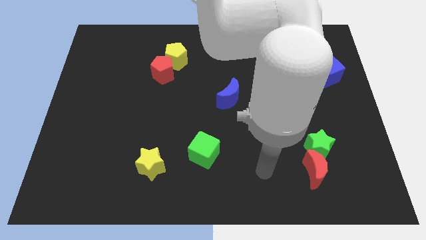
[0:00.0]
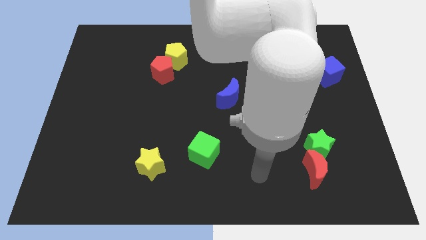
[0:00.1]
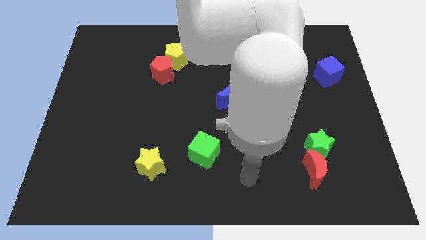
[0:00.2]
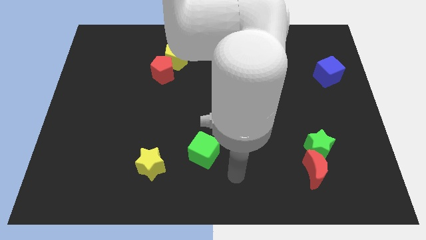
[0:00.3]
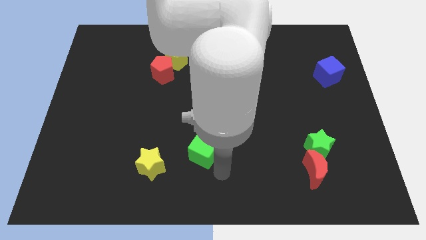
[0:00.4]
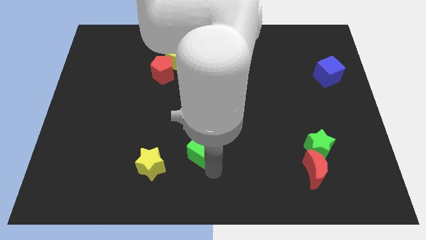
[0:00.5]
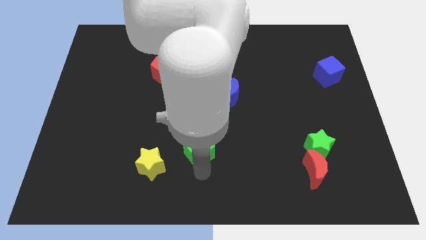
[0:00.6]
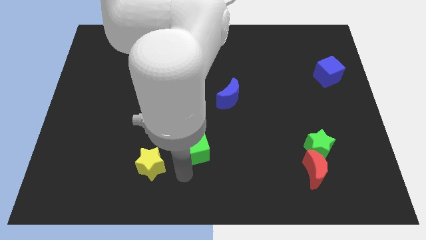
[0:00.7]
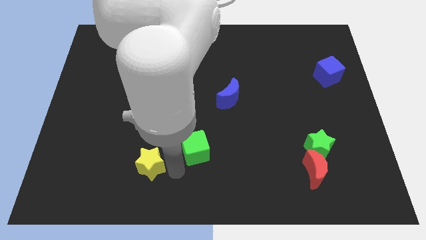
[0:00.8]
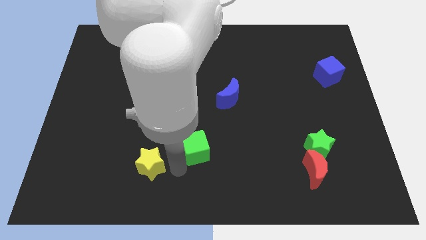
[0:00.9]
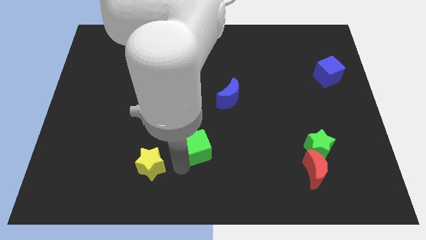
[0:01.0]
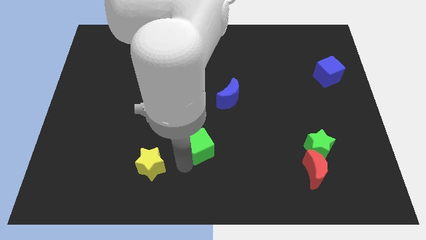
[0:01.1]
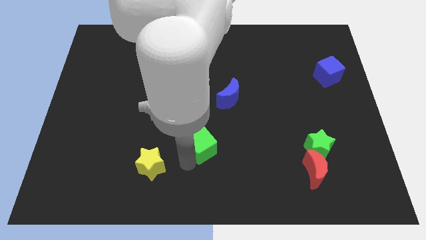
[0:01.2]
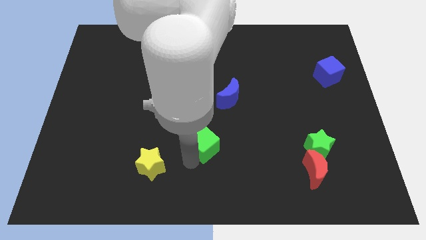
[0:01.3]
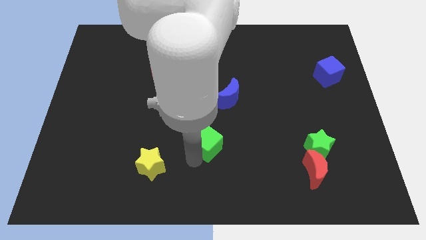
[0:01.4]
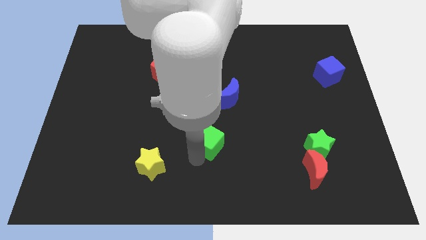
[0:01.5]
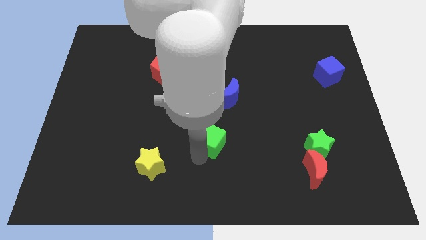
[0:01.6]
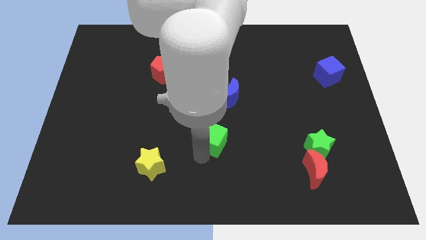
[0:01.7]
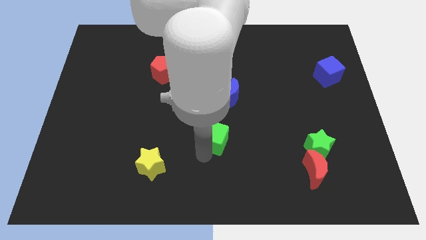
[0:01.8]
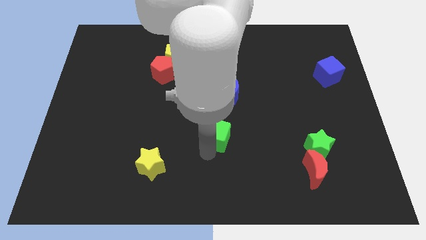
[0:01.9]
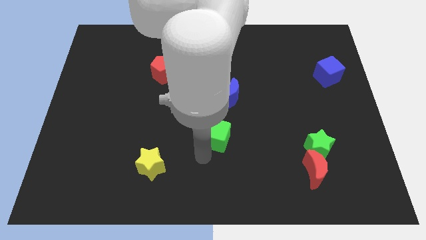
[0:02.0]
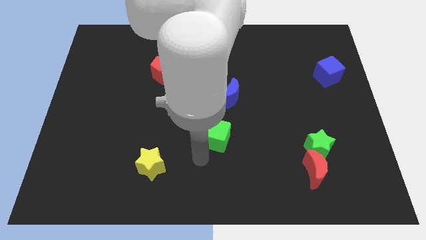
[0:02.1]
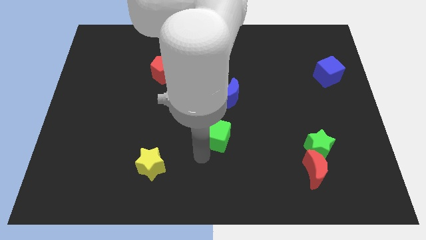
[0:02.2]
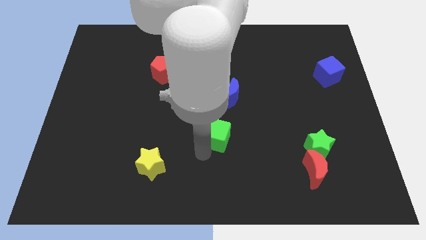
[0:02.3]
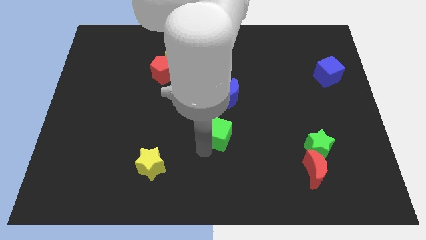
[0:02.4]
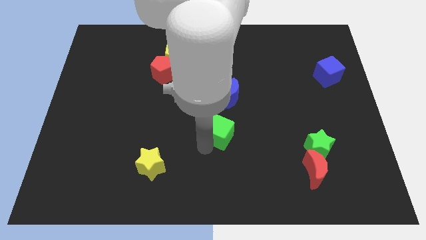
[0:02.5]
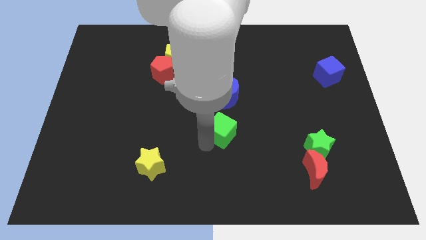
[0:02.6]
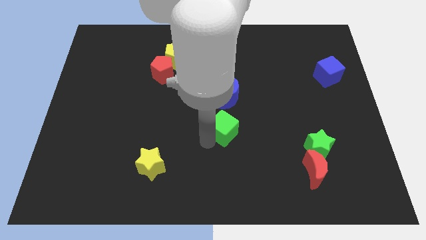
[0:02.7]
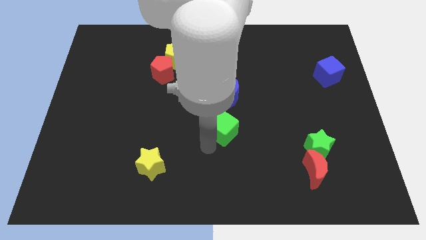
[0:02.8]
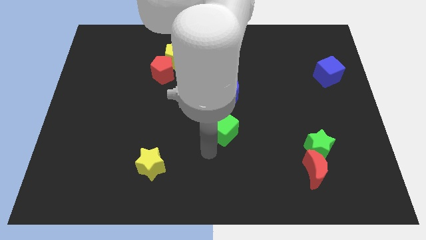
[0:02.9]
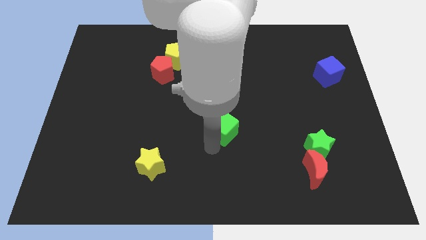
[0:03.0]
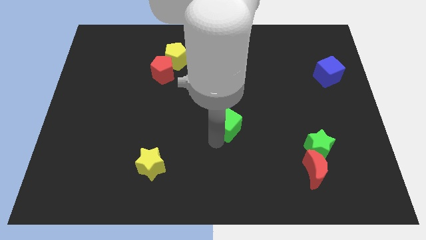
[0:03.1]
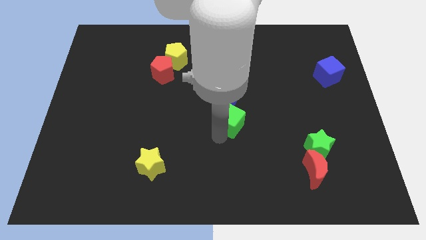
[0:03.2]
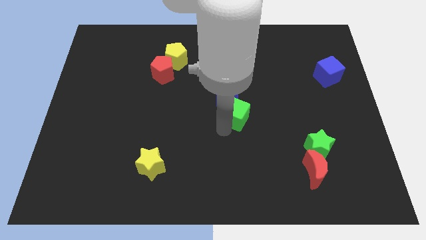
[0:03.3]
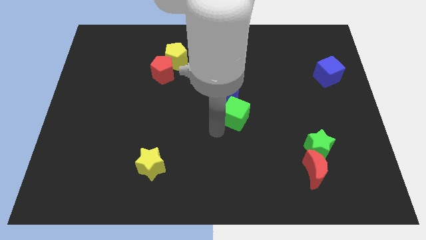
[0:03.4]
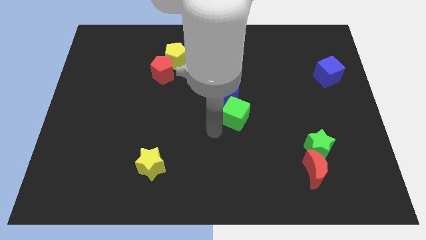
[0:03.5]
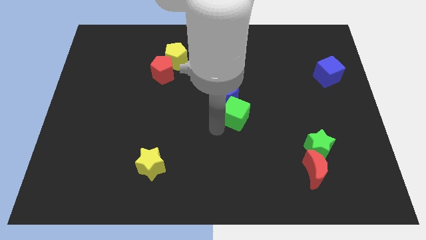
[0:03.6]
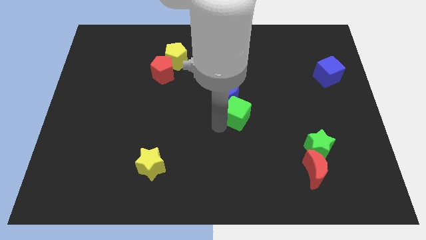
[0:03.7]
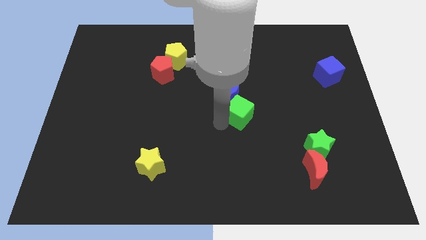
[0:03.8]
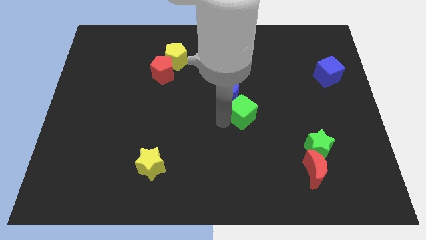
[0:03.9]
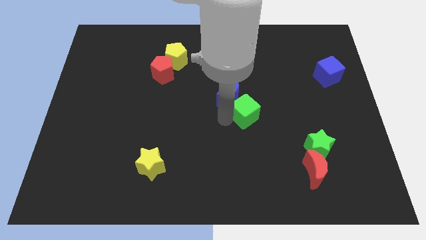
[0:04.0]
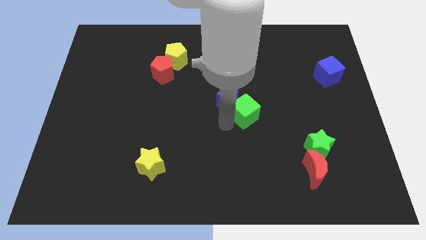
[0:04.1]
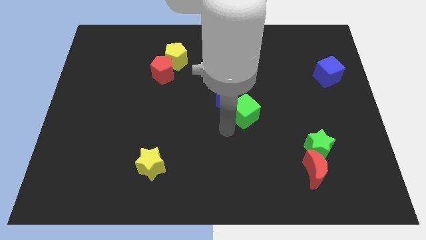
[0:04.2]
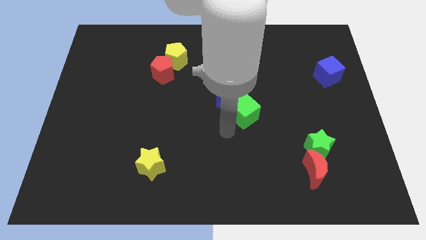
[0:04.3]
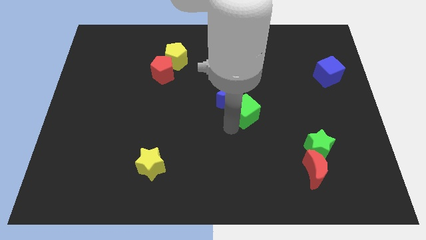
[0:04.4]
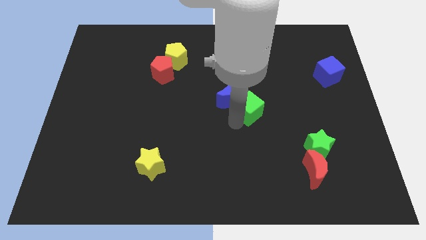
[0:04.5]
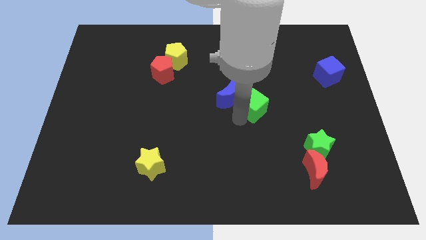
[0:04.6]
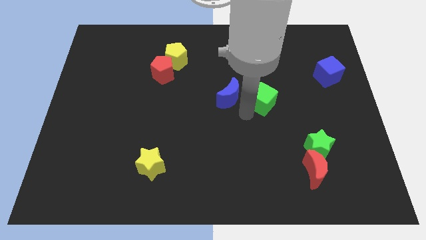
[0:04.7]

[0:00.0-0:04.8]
slide the green cube diagonally upwards and right

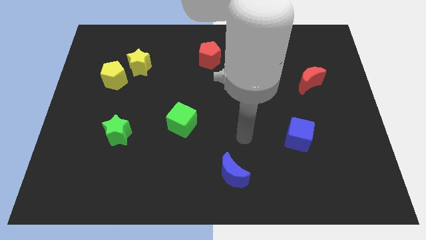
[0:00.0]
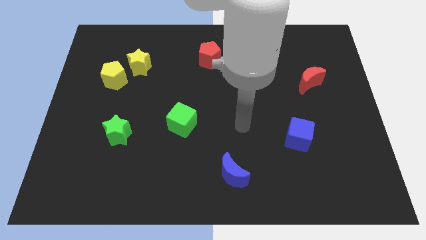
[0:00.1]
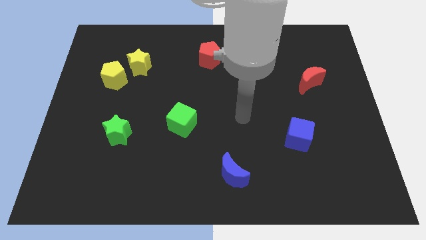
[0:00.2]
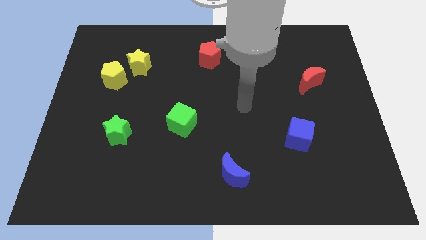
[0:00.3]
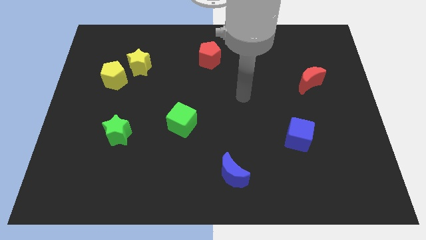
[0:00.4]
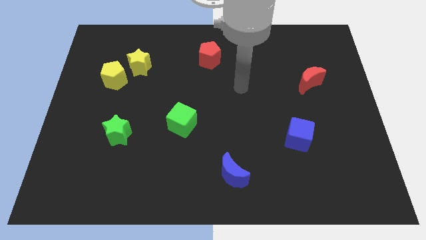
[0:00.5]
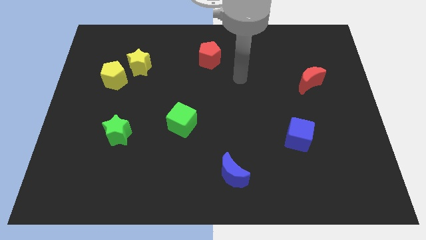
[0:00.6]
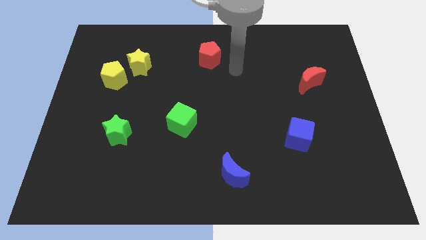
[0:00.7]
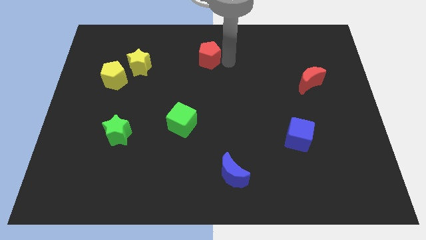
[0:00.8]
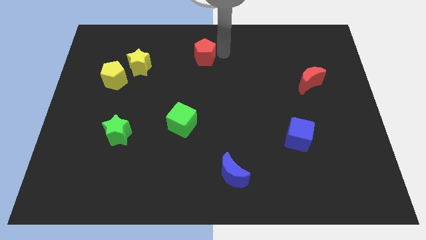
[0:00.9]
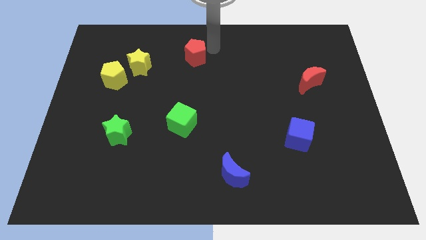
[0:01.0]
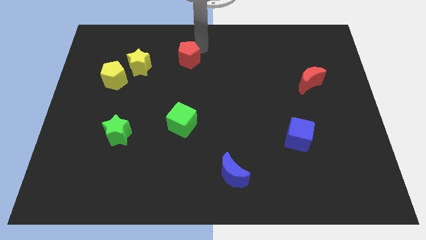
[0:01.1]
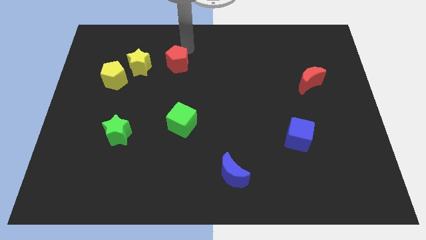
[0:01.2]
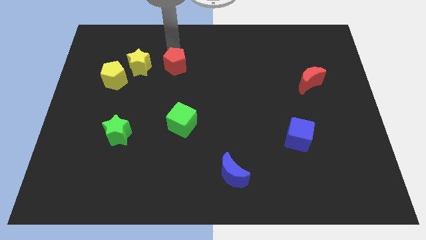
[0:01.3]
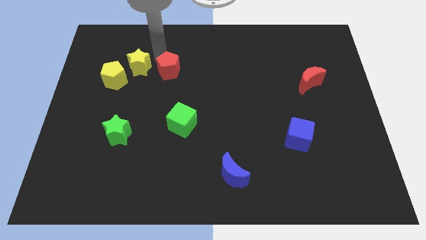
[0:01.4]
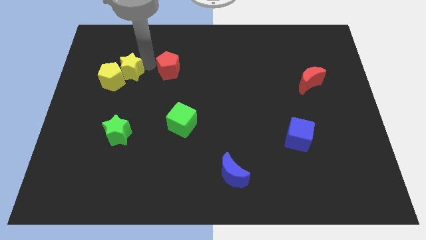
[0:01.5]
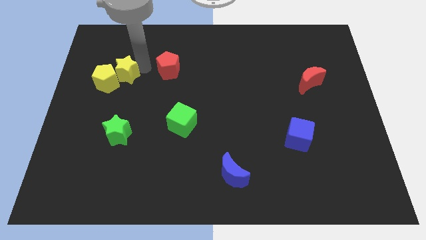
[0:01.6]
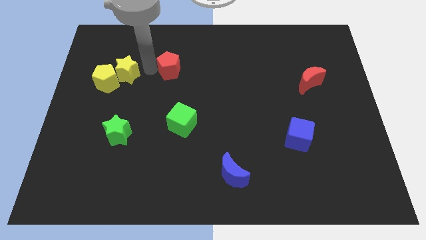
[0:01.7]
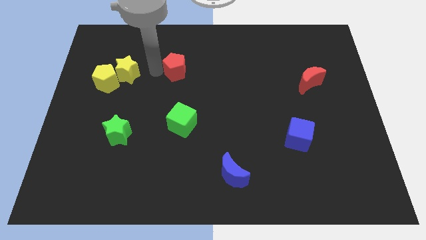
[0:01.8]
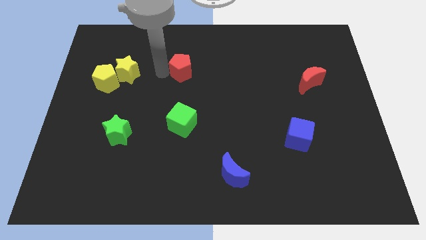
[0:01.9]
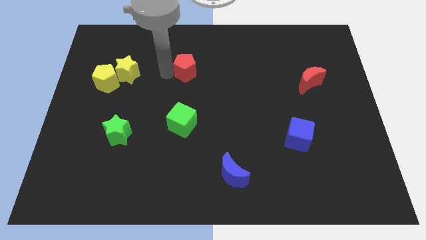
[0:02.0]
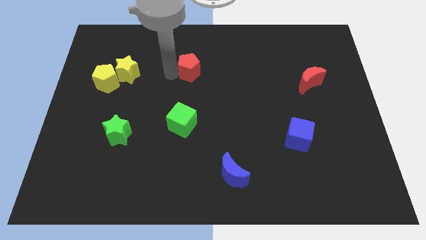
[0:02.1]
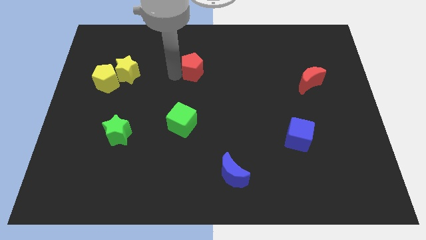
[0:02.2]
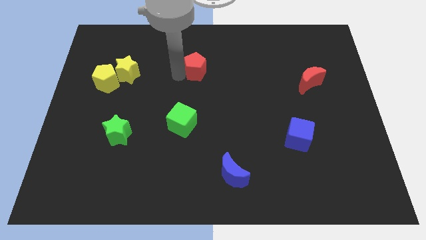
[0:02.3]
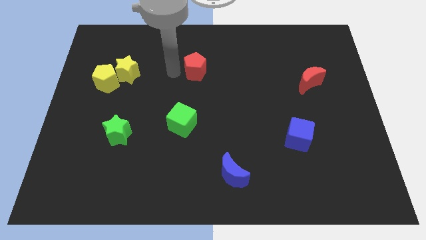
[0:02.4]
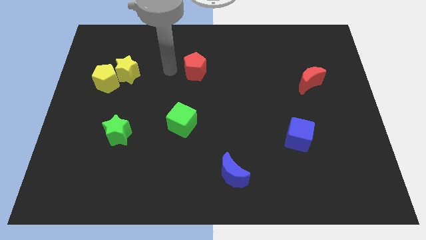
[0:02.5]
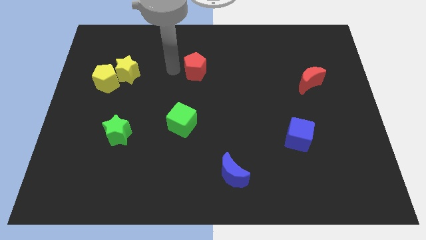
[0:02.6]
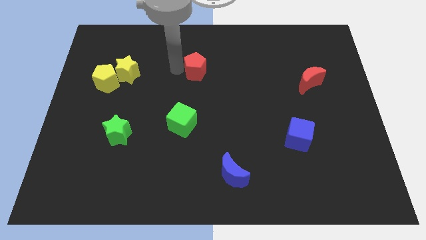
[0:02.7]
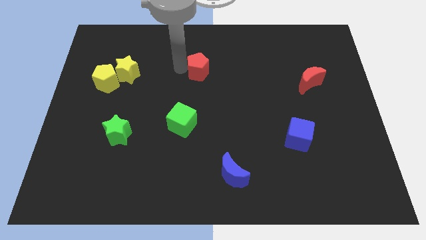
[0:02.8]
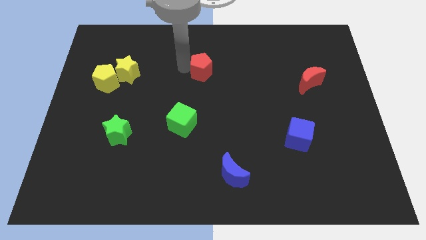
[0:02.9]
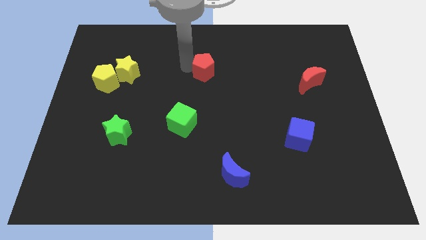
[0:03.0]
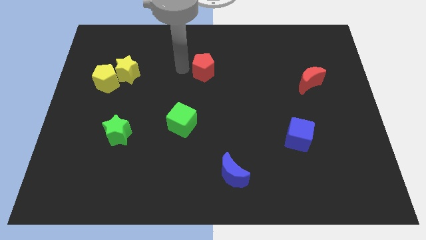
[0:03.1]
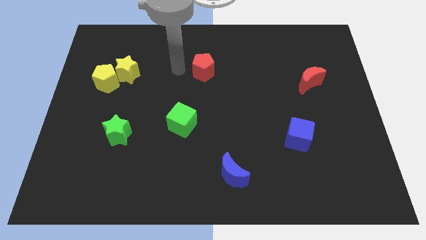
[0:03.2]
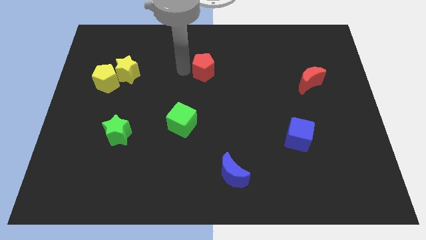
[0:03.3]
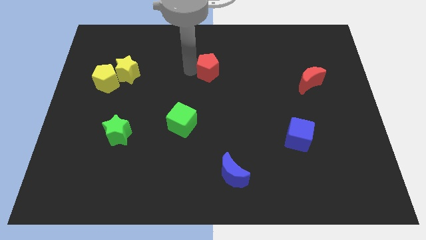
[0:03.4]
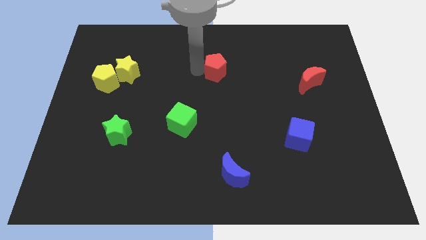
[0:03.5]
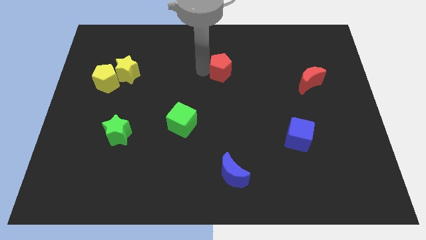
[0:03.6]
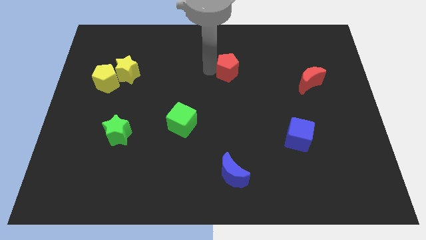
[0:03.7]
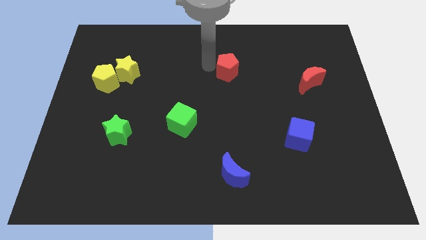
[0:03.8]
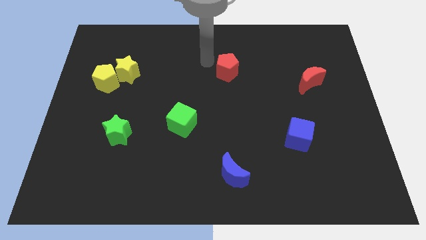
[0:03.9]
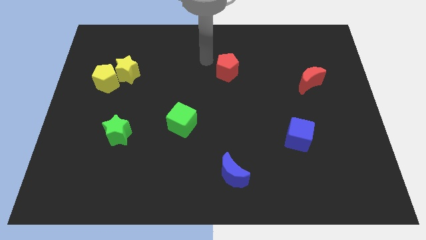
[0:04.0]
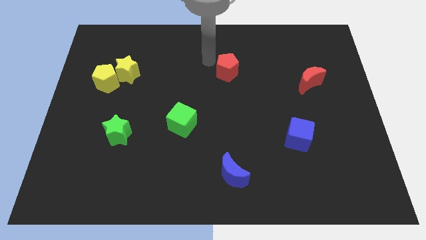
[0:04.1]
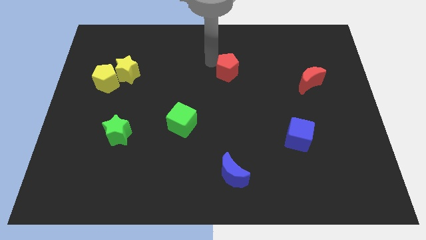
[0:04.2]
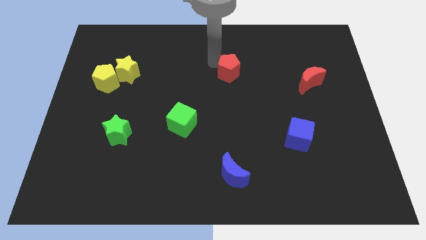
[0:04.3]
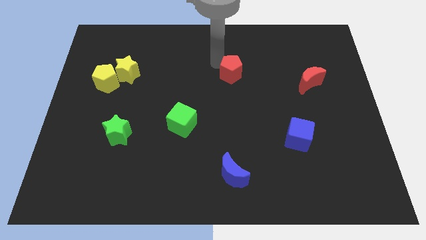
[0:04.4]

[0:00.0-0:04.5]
move the red pentagon a little bit diagonally downwards and right
